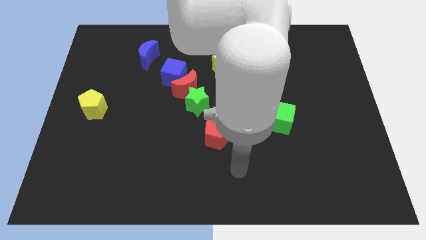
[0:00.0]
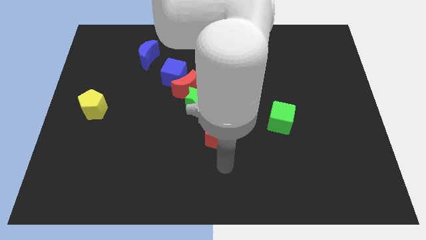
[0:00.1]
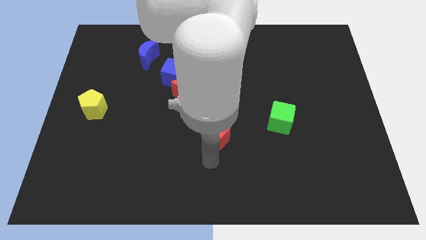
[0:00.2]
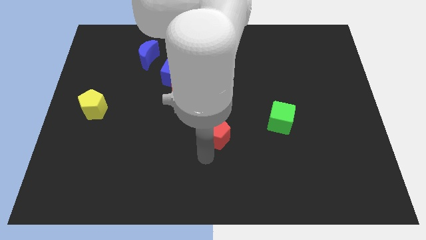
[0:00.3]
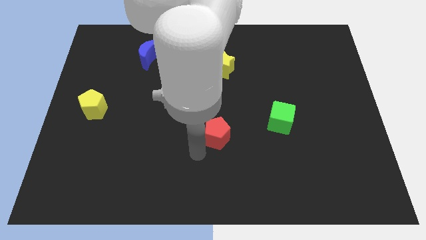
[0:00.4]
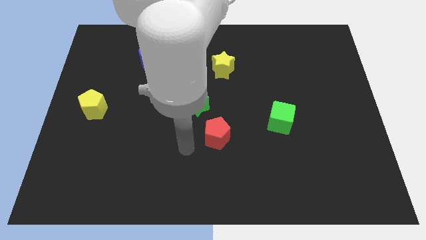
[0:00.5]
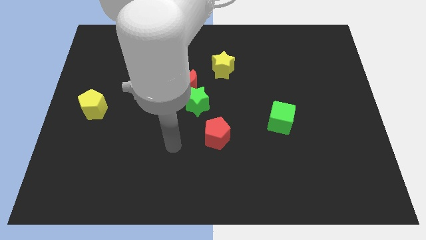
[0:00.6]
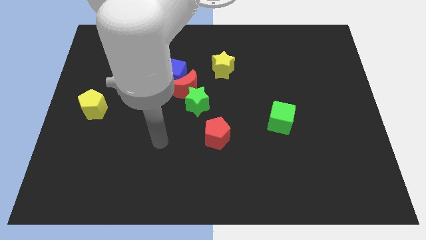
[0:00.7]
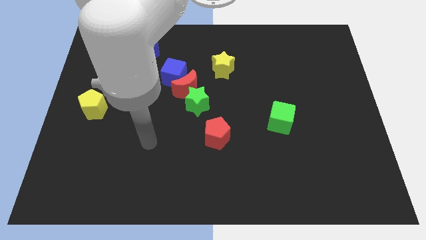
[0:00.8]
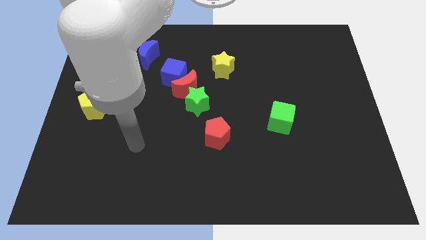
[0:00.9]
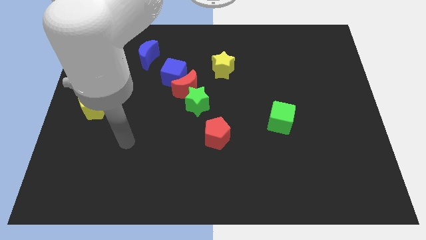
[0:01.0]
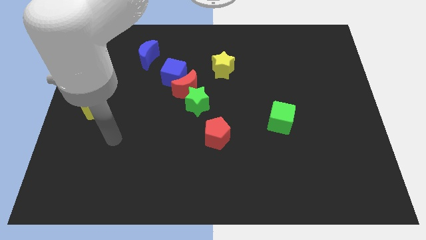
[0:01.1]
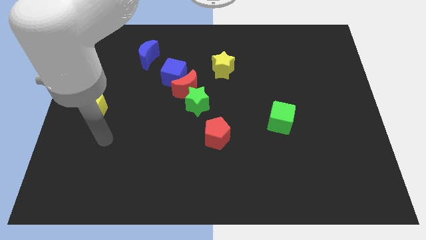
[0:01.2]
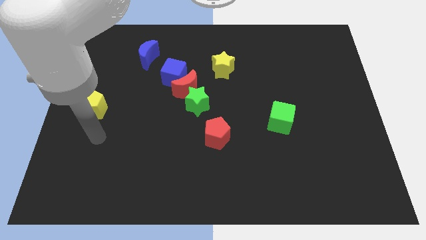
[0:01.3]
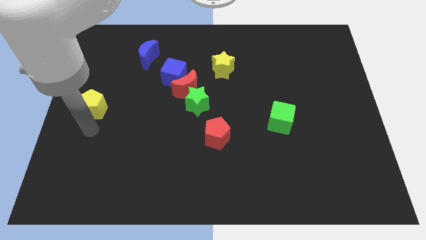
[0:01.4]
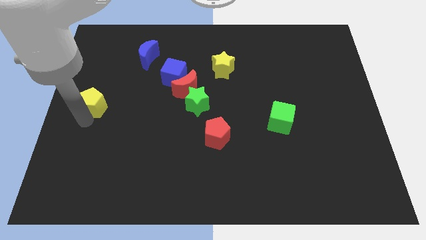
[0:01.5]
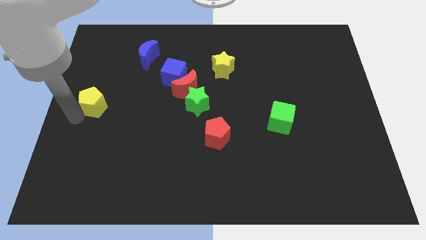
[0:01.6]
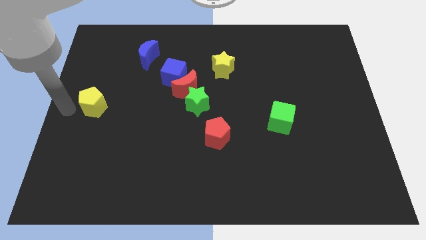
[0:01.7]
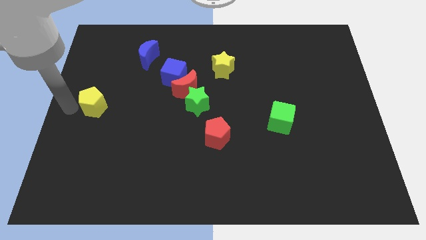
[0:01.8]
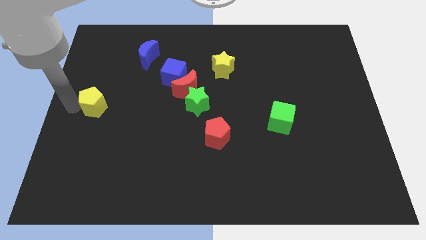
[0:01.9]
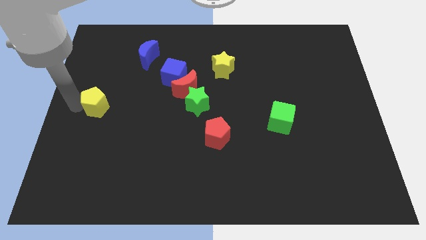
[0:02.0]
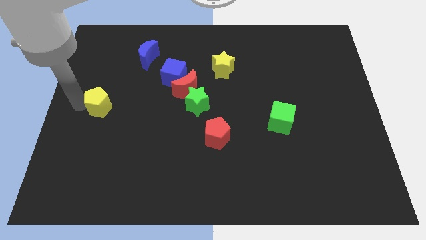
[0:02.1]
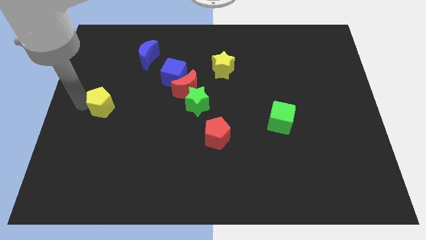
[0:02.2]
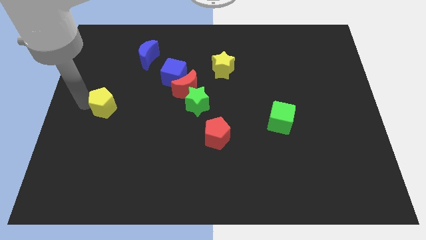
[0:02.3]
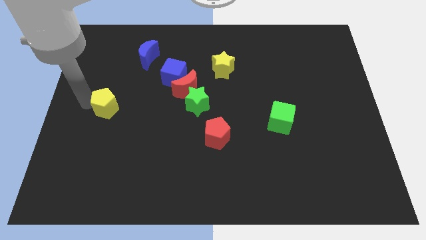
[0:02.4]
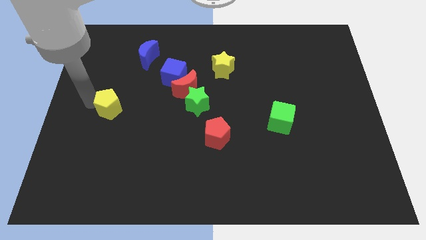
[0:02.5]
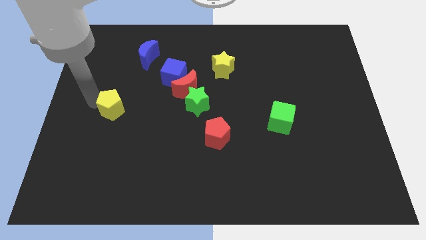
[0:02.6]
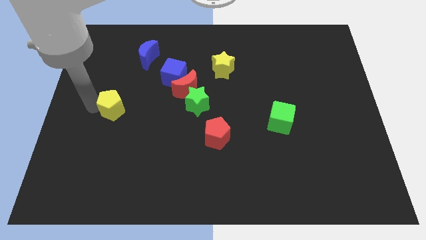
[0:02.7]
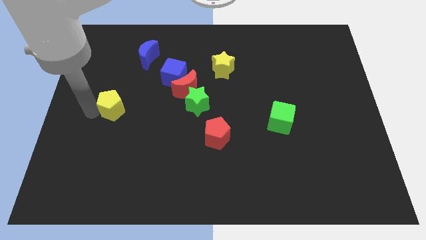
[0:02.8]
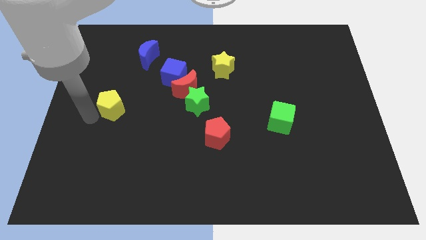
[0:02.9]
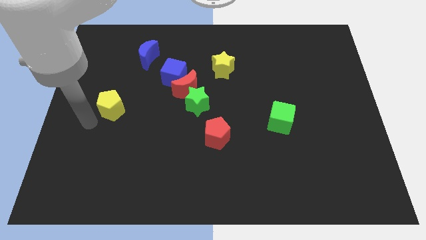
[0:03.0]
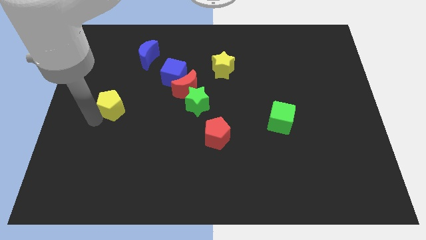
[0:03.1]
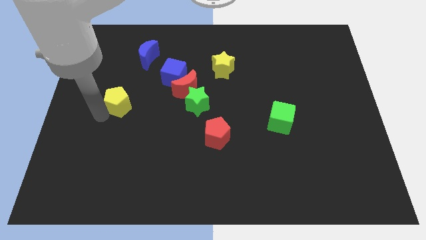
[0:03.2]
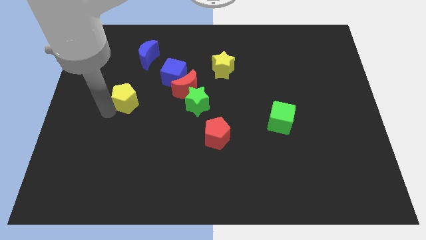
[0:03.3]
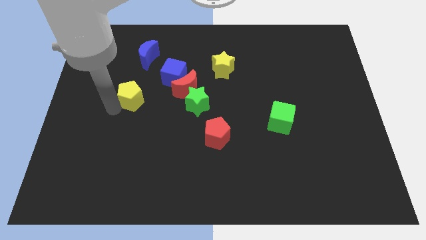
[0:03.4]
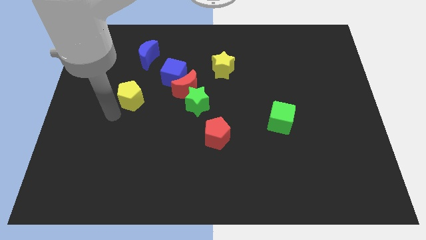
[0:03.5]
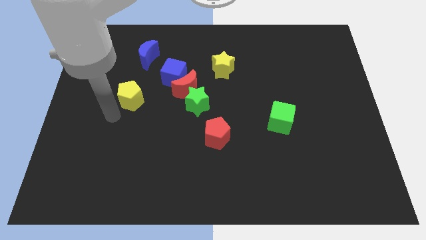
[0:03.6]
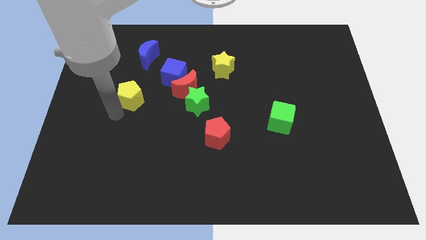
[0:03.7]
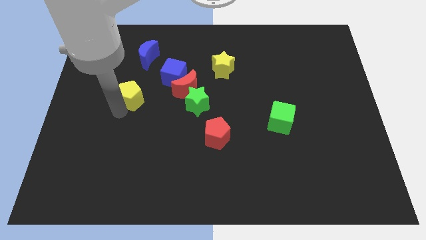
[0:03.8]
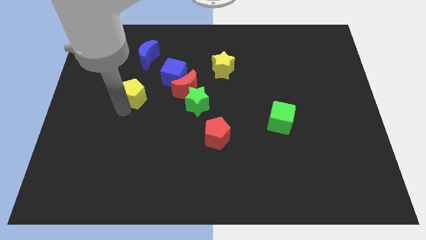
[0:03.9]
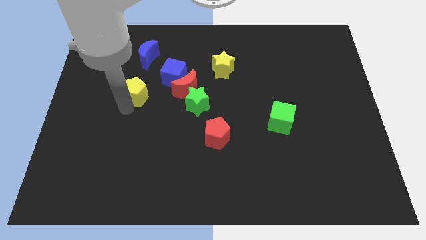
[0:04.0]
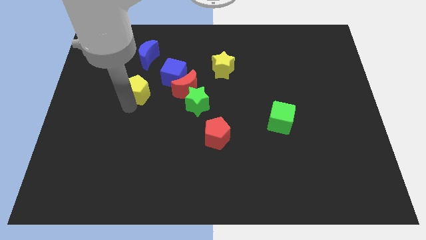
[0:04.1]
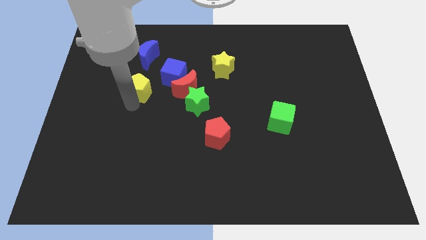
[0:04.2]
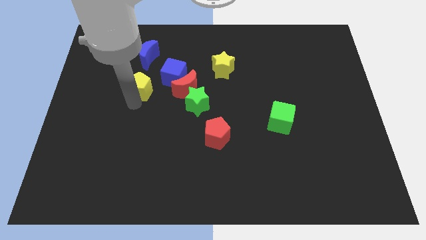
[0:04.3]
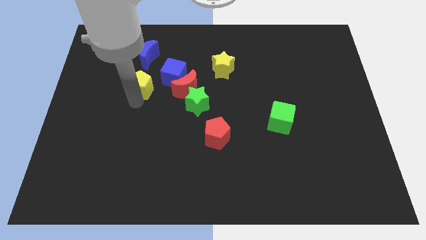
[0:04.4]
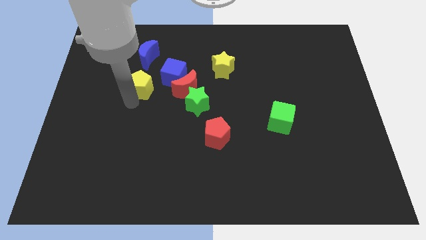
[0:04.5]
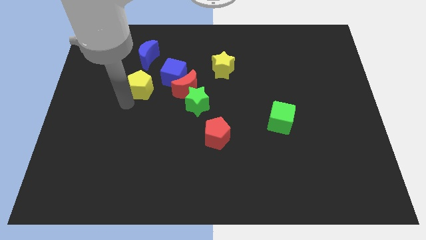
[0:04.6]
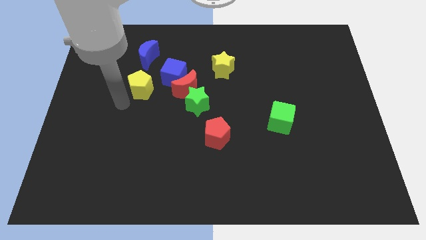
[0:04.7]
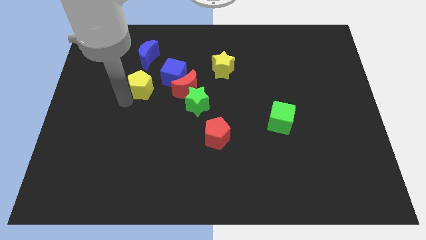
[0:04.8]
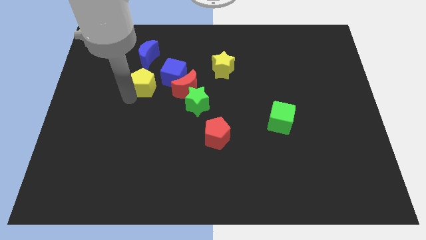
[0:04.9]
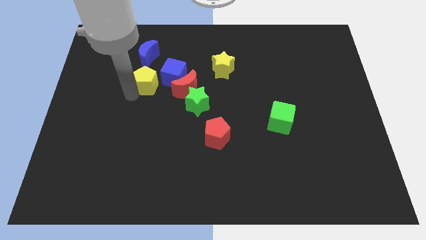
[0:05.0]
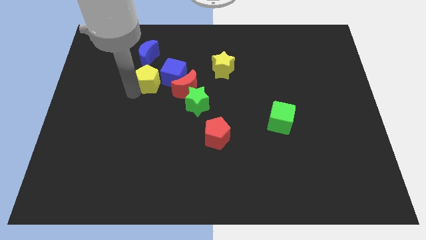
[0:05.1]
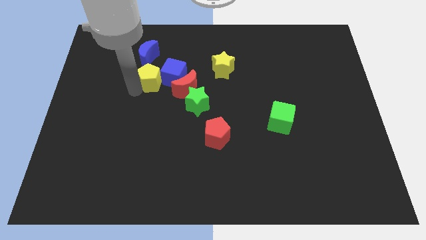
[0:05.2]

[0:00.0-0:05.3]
put the yellow pentagon to the blue cube

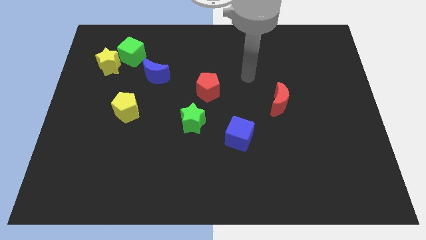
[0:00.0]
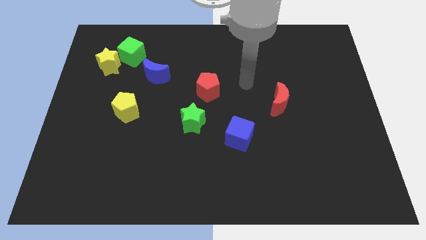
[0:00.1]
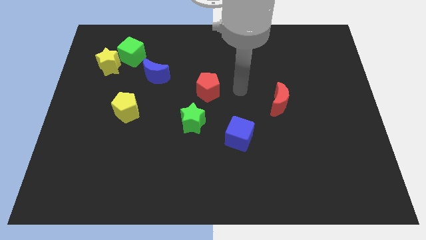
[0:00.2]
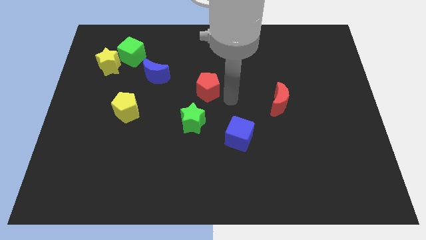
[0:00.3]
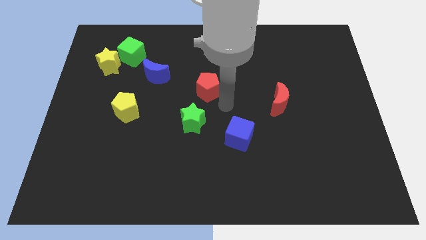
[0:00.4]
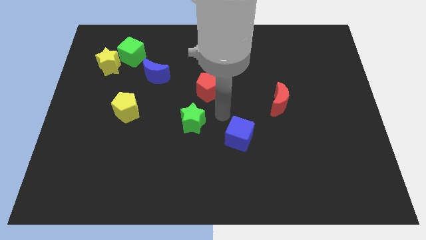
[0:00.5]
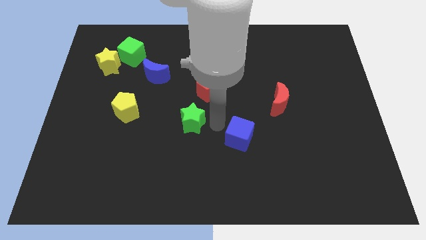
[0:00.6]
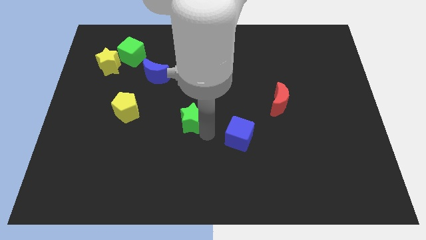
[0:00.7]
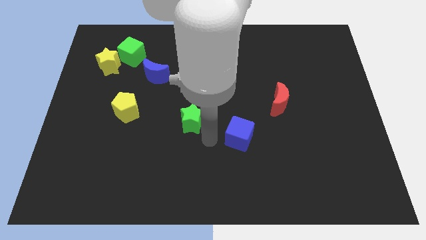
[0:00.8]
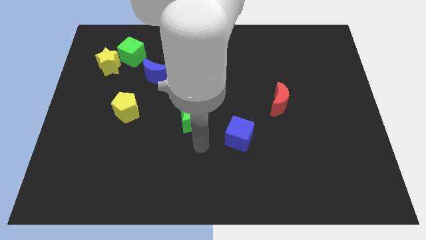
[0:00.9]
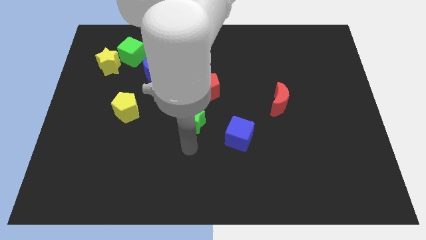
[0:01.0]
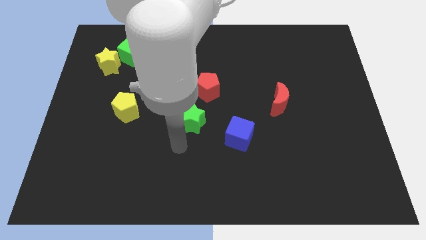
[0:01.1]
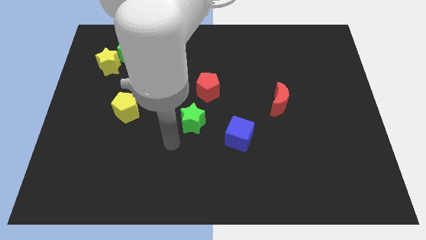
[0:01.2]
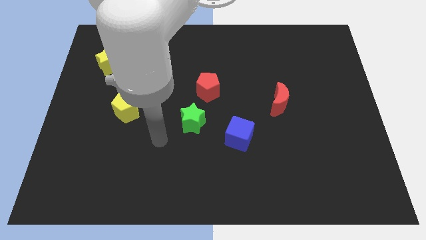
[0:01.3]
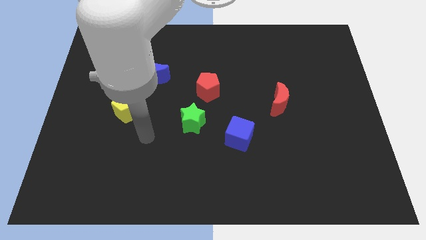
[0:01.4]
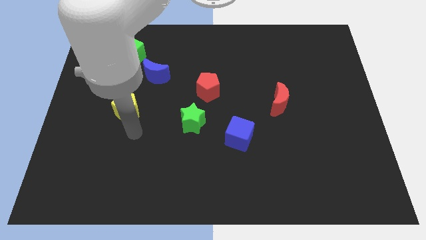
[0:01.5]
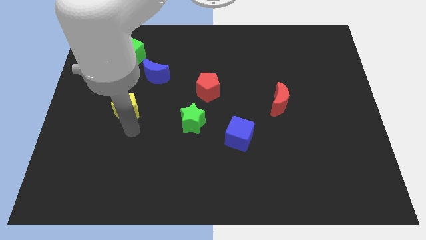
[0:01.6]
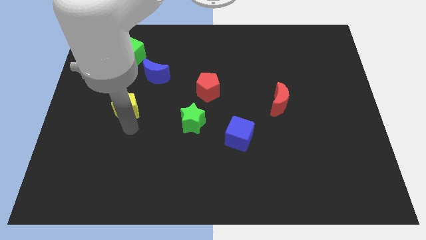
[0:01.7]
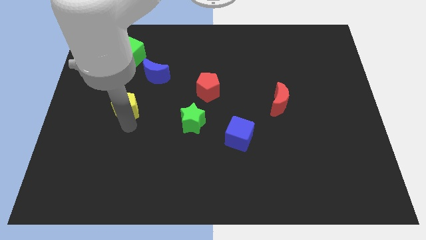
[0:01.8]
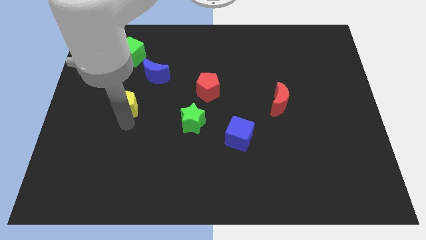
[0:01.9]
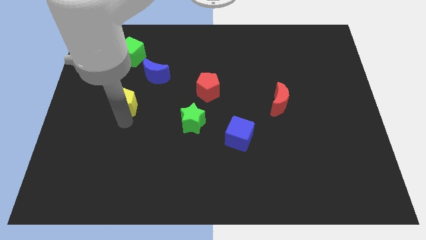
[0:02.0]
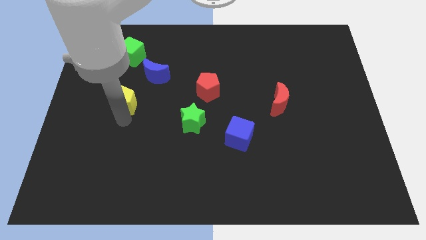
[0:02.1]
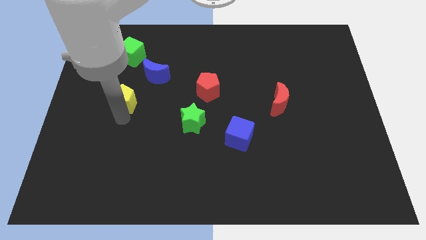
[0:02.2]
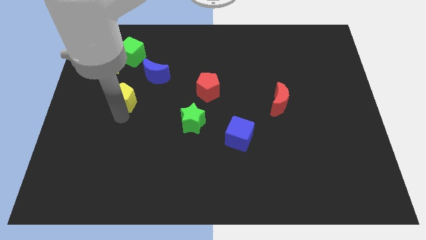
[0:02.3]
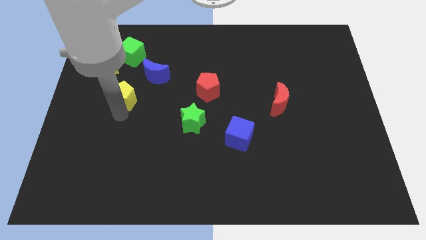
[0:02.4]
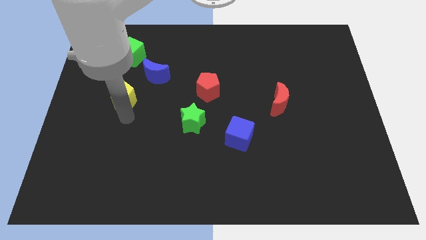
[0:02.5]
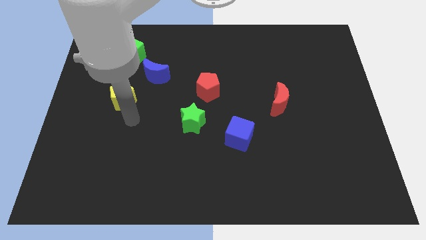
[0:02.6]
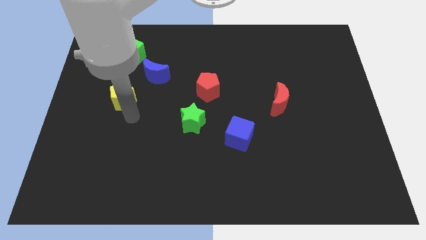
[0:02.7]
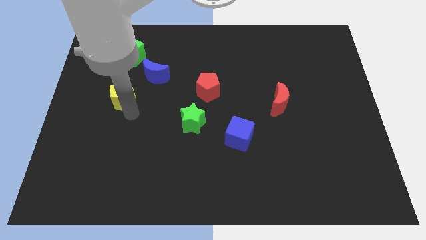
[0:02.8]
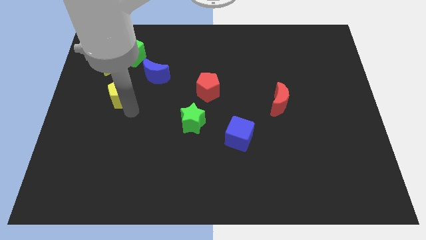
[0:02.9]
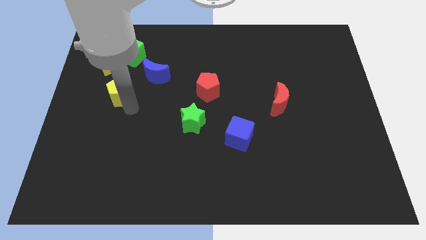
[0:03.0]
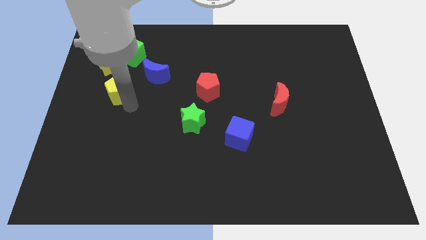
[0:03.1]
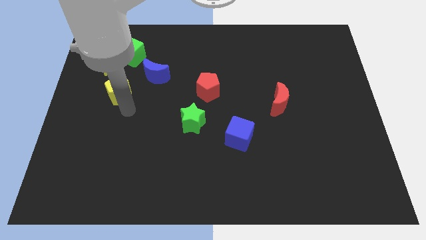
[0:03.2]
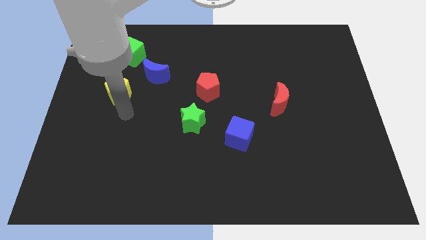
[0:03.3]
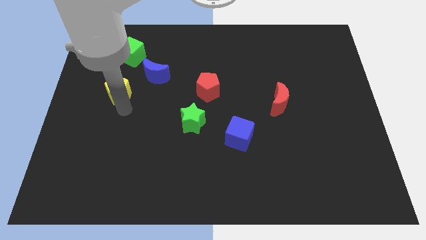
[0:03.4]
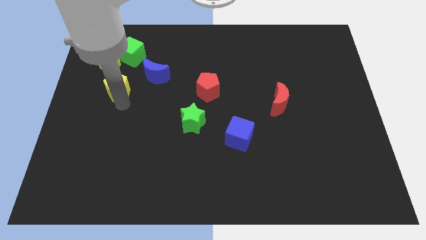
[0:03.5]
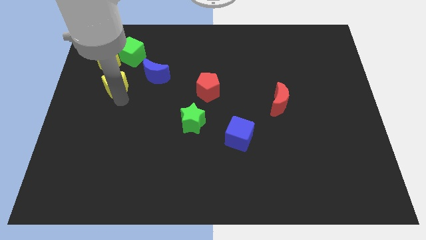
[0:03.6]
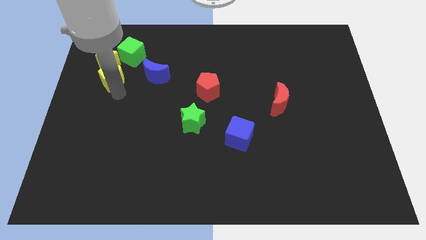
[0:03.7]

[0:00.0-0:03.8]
move the yellow pentagon next to the yellow star
